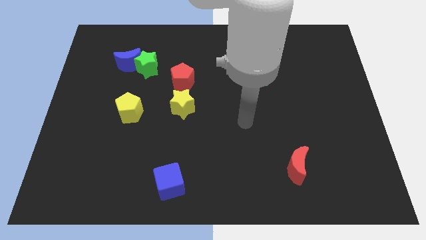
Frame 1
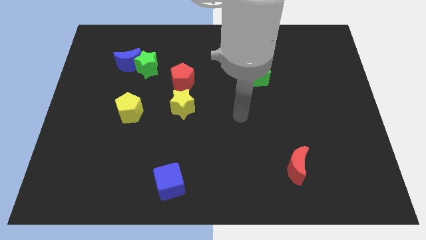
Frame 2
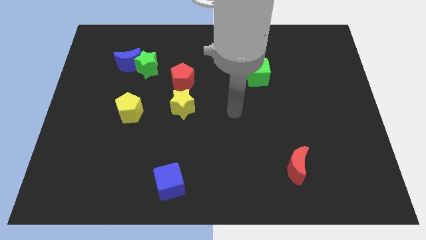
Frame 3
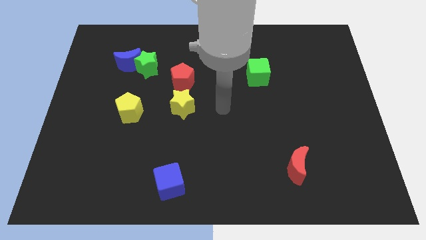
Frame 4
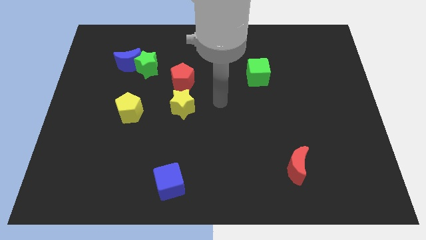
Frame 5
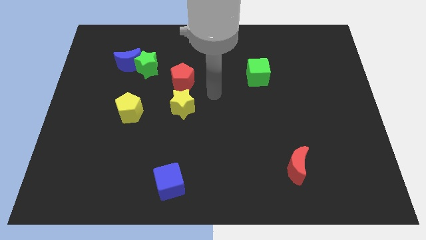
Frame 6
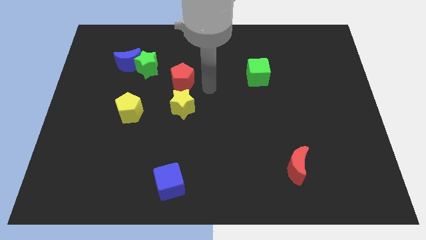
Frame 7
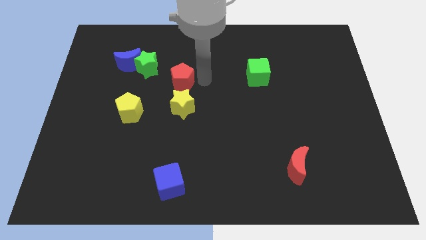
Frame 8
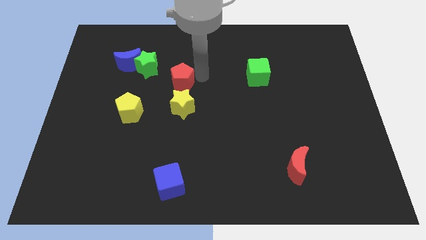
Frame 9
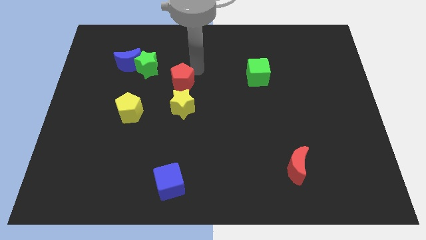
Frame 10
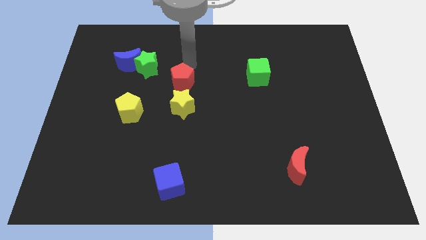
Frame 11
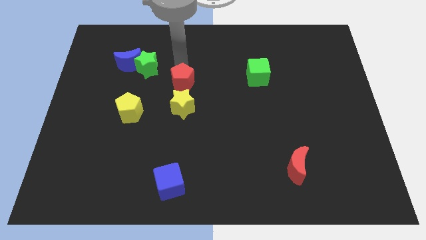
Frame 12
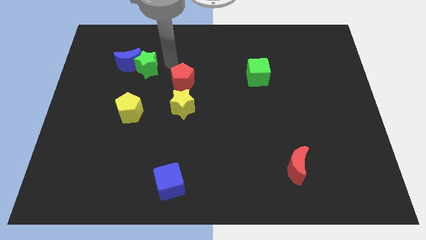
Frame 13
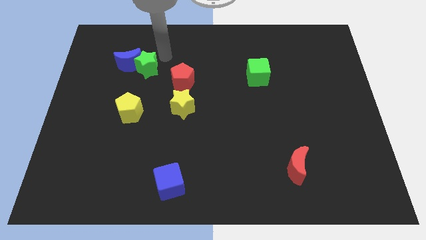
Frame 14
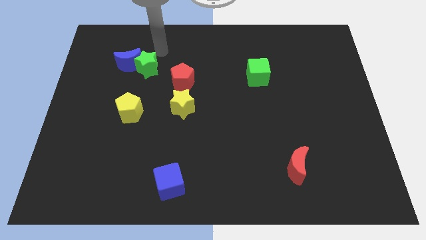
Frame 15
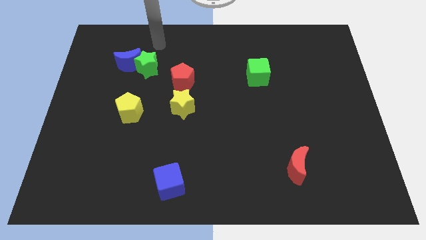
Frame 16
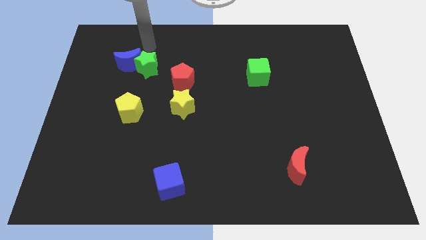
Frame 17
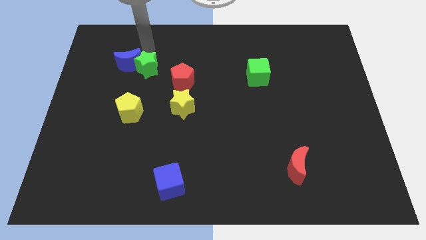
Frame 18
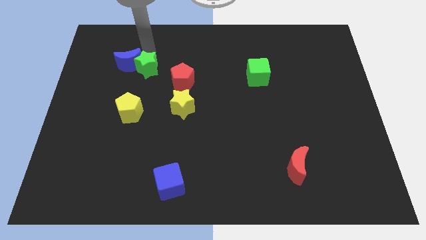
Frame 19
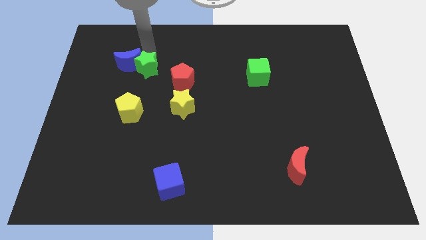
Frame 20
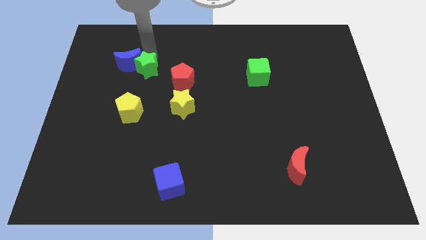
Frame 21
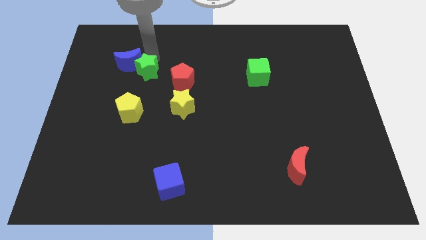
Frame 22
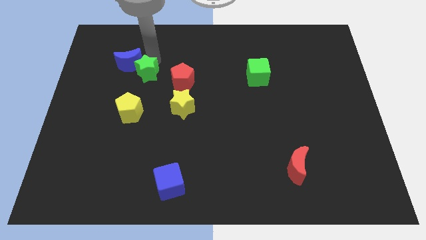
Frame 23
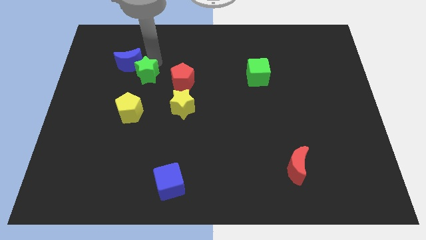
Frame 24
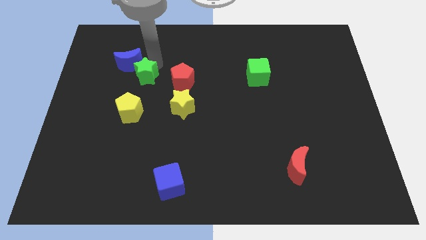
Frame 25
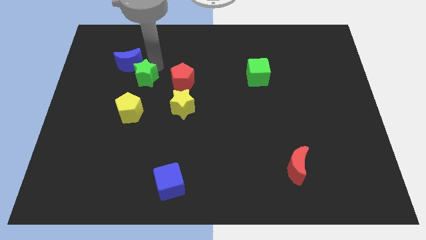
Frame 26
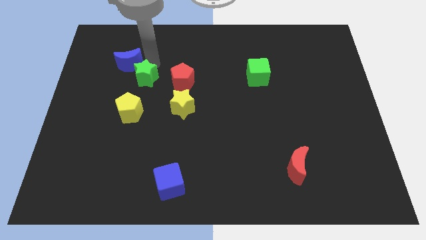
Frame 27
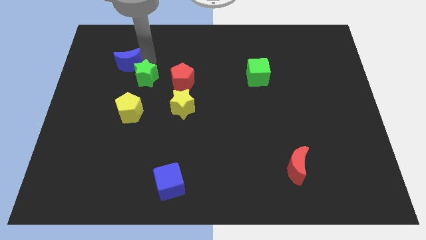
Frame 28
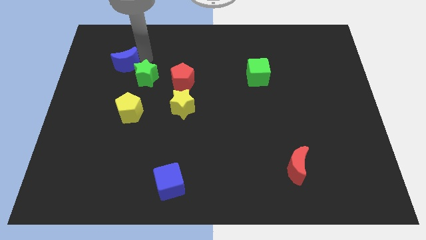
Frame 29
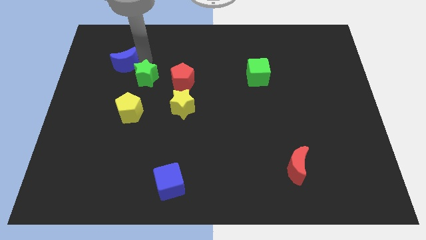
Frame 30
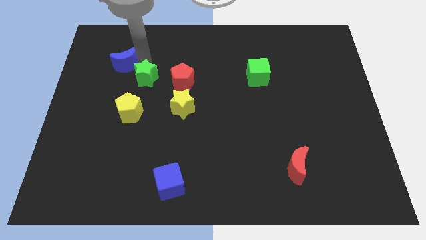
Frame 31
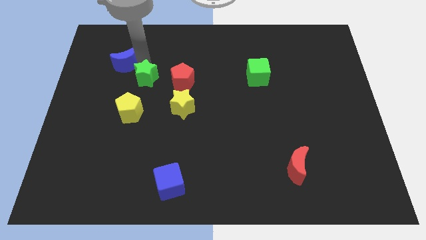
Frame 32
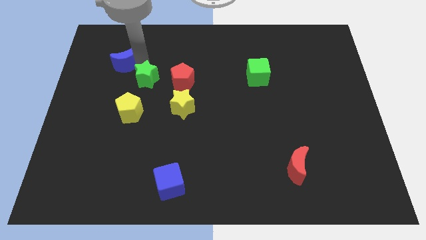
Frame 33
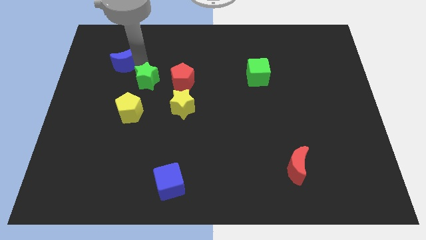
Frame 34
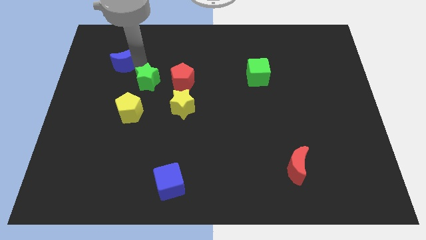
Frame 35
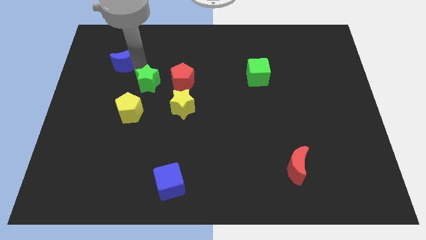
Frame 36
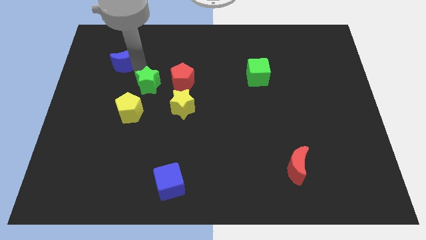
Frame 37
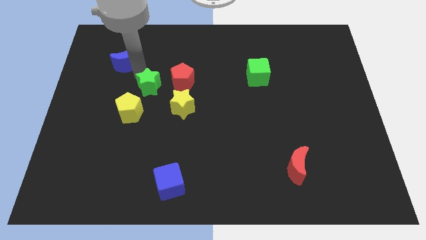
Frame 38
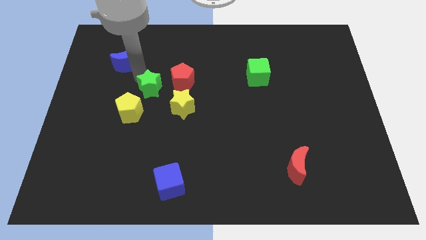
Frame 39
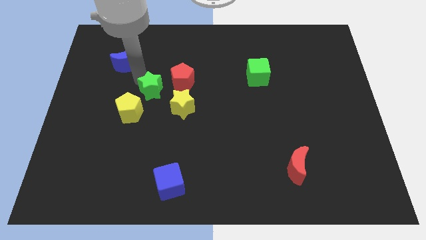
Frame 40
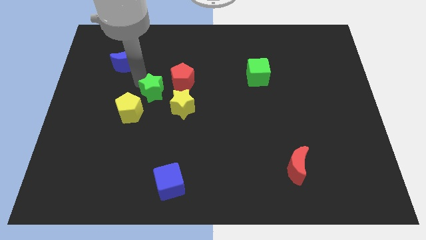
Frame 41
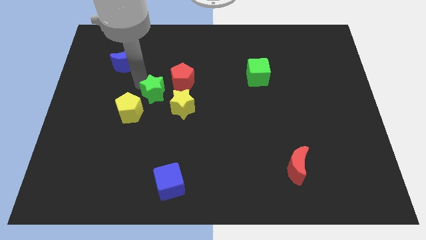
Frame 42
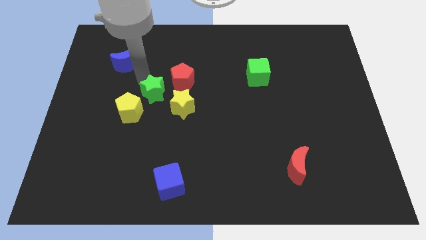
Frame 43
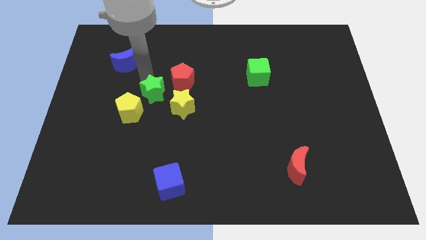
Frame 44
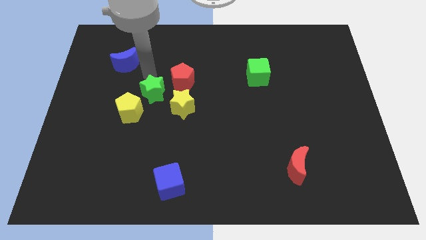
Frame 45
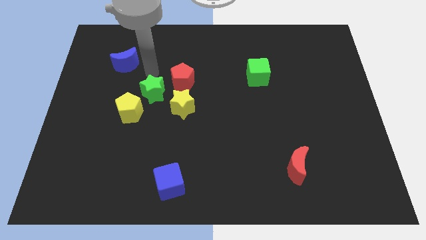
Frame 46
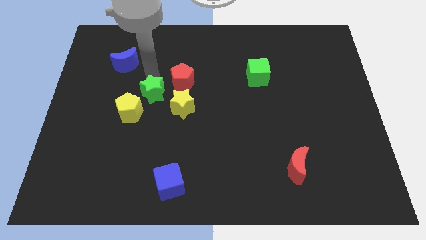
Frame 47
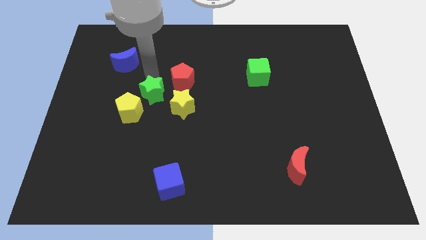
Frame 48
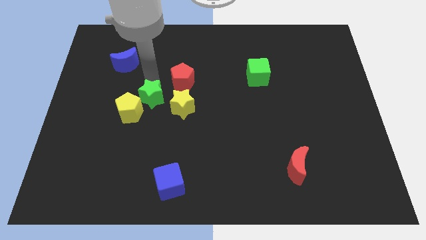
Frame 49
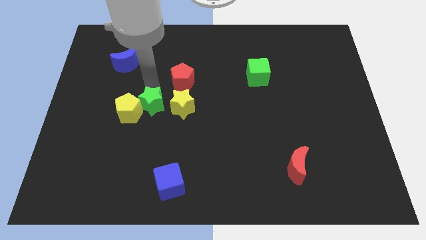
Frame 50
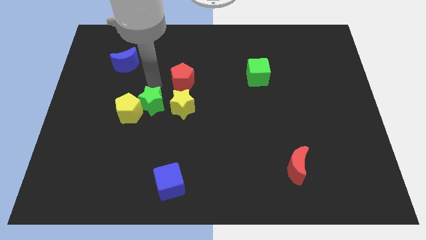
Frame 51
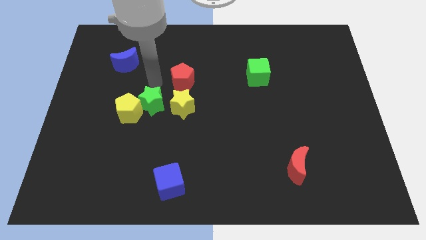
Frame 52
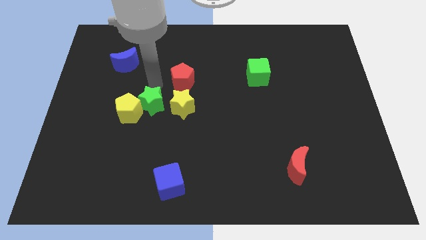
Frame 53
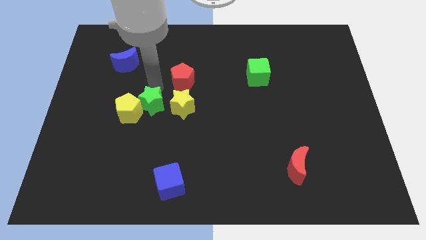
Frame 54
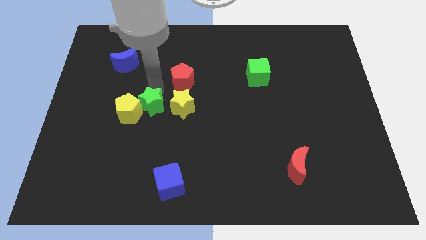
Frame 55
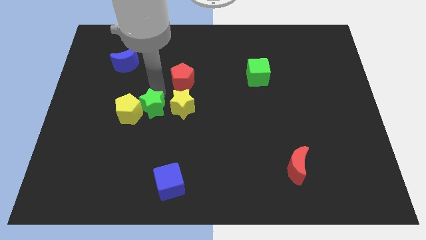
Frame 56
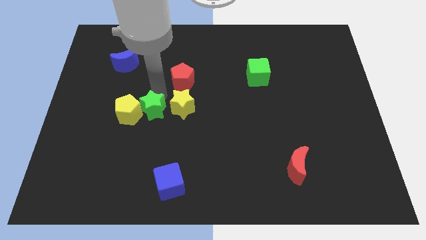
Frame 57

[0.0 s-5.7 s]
push the green star diagonally down and to the right of the yellow pentagon

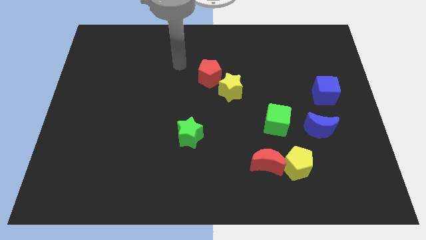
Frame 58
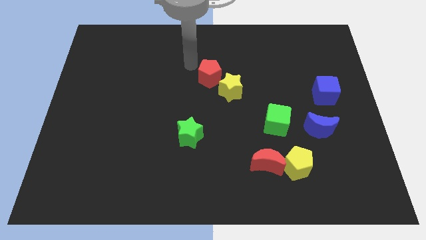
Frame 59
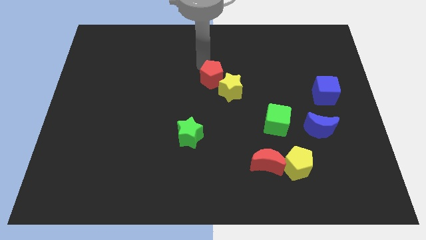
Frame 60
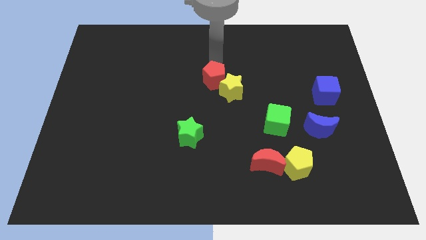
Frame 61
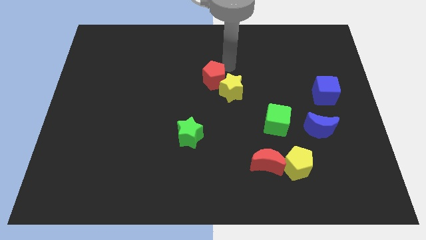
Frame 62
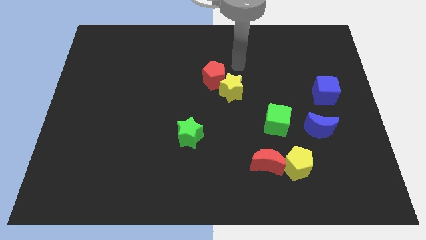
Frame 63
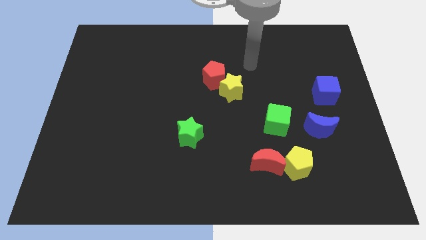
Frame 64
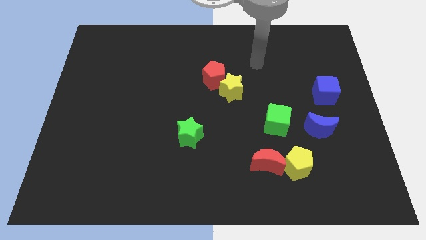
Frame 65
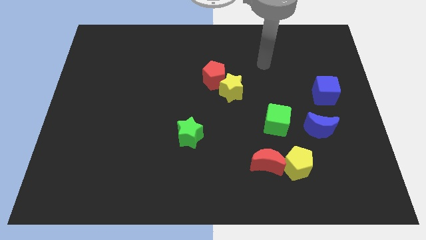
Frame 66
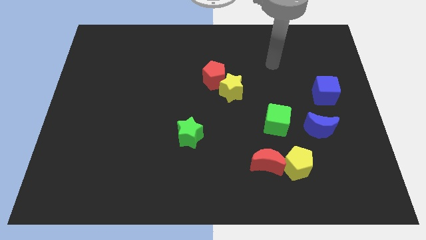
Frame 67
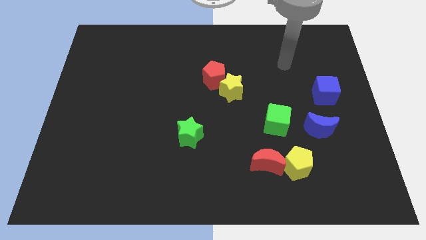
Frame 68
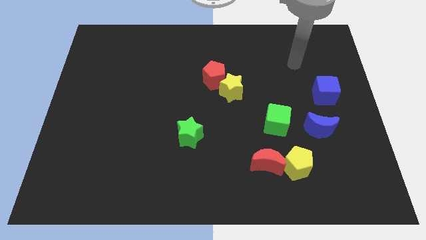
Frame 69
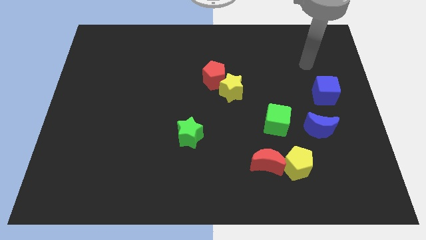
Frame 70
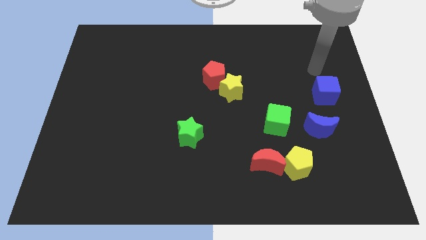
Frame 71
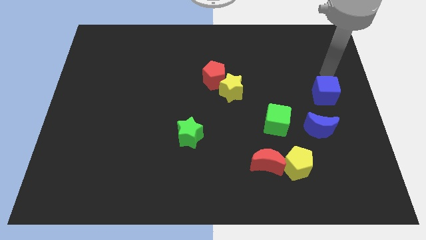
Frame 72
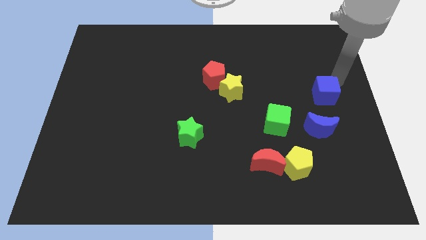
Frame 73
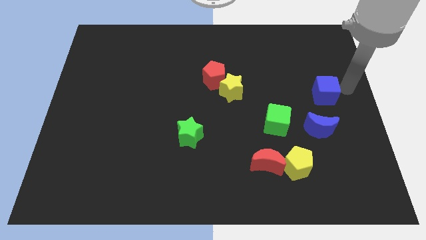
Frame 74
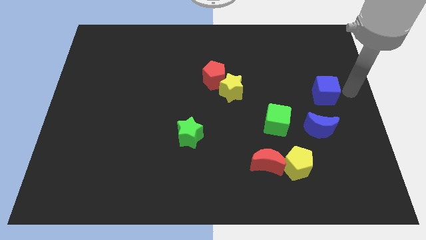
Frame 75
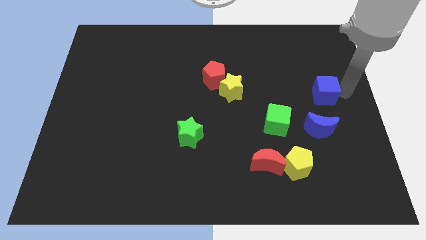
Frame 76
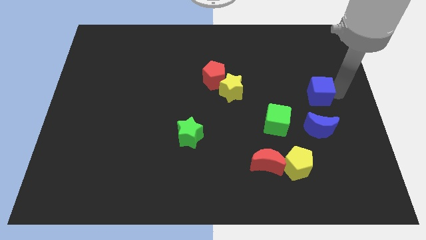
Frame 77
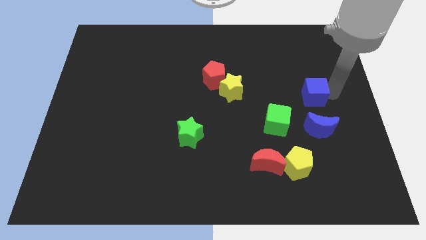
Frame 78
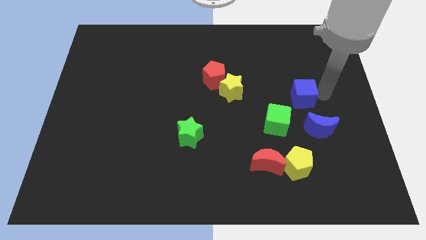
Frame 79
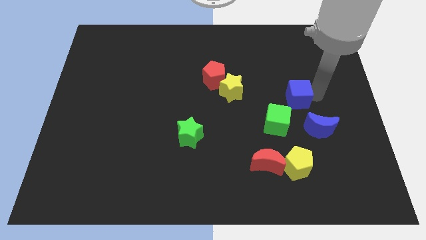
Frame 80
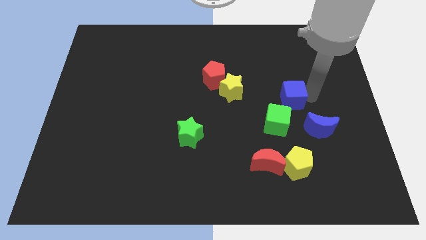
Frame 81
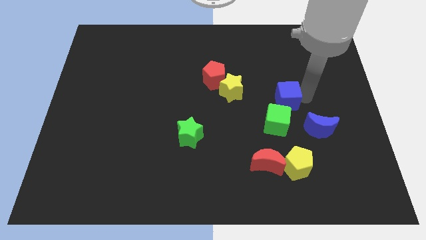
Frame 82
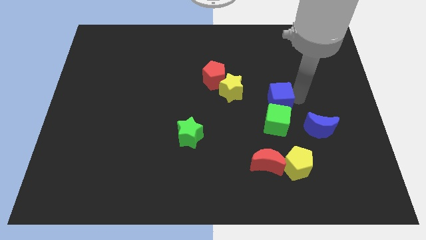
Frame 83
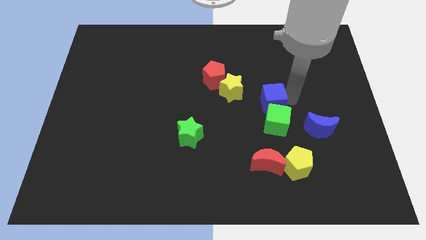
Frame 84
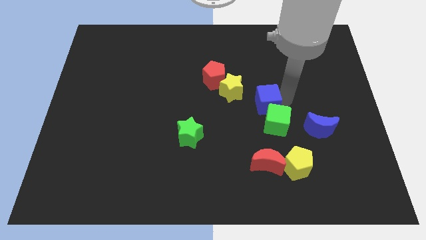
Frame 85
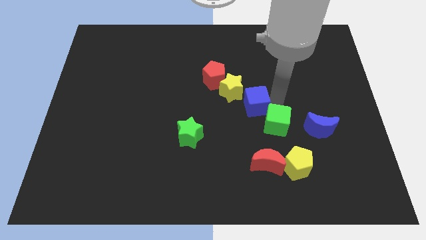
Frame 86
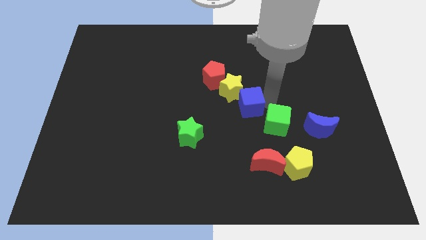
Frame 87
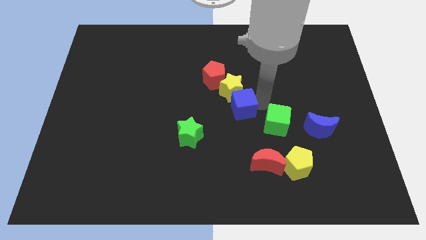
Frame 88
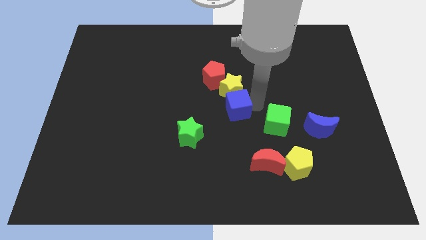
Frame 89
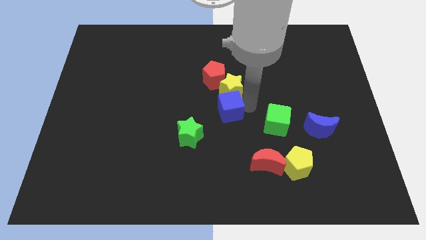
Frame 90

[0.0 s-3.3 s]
slide the blue cube to the top right side of the green star
